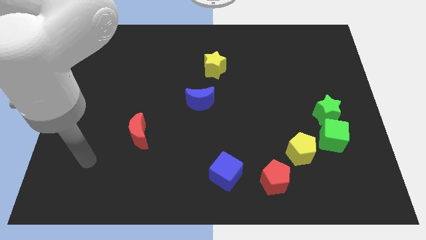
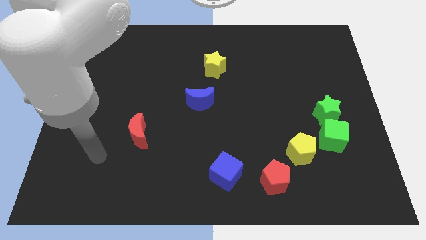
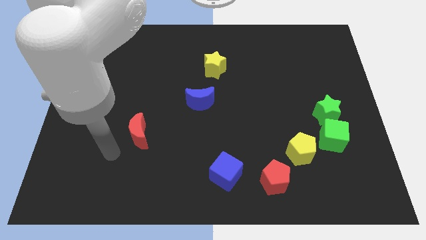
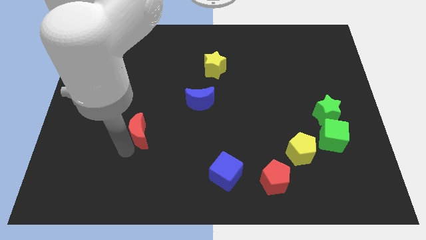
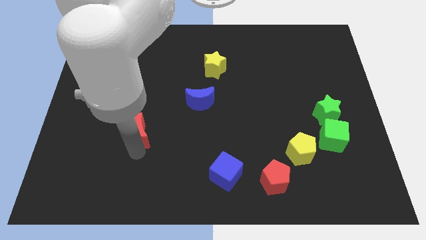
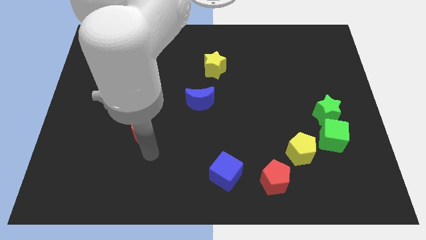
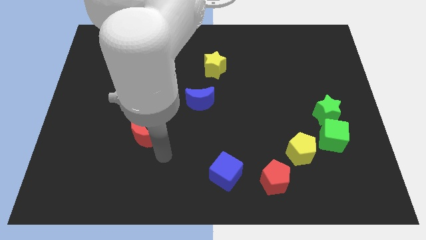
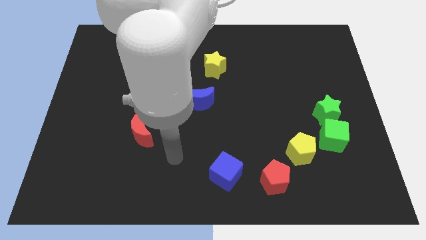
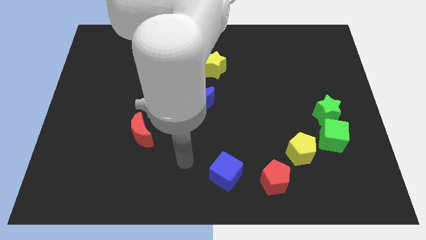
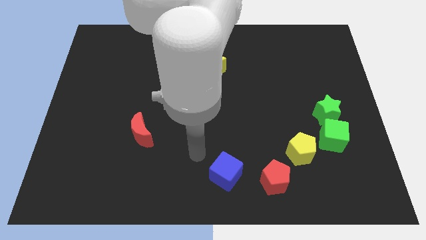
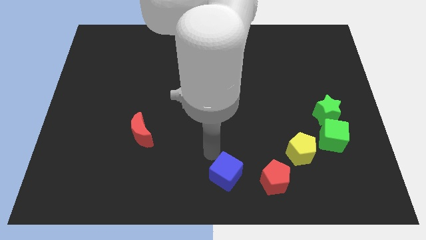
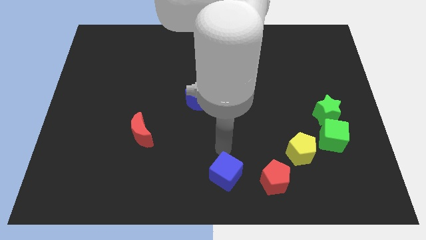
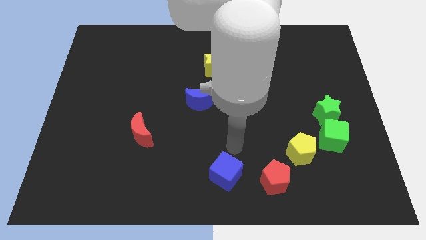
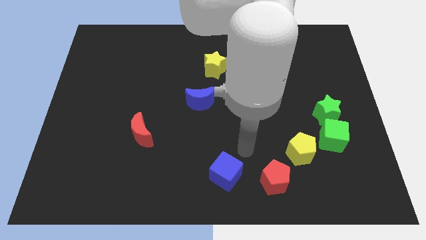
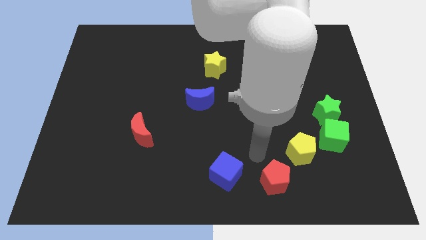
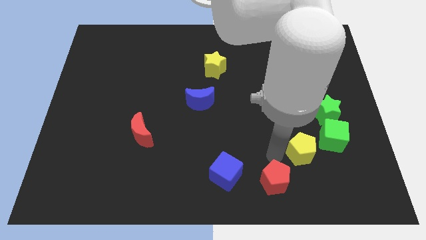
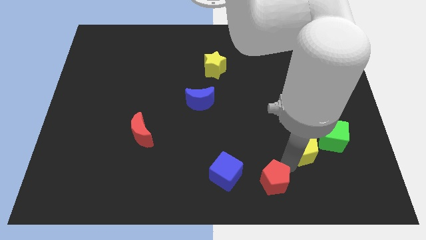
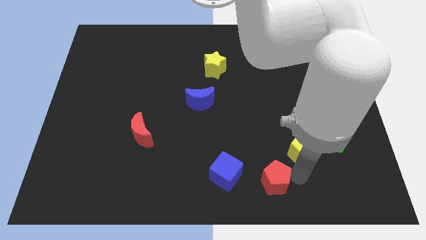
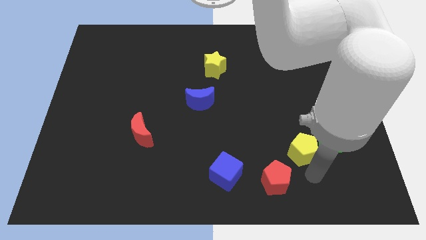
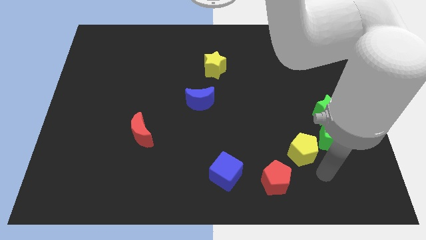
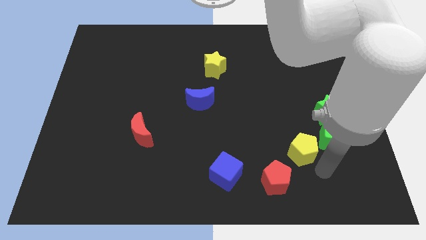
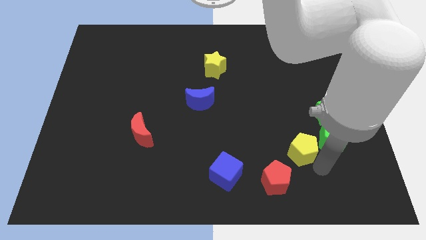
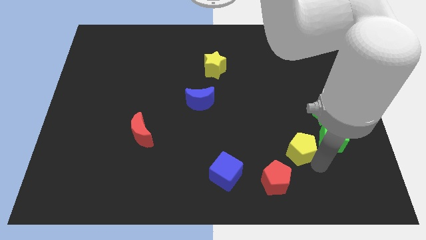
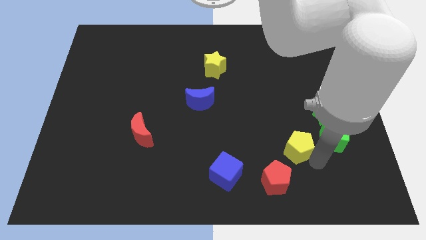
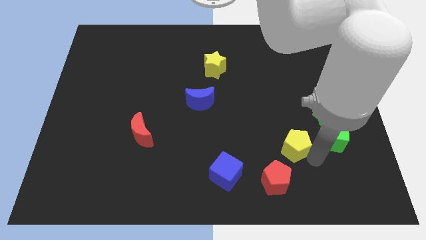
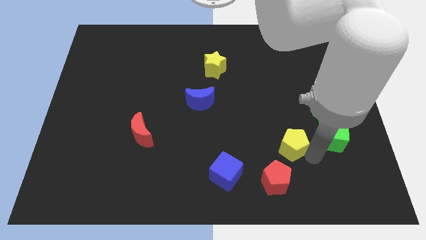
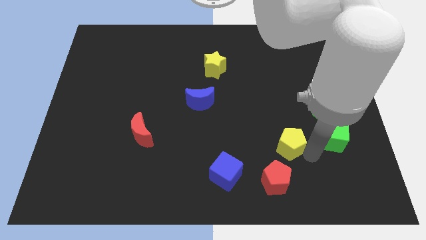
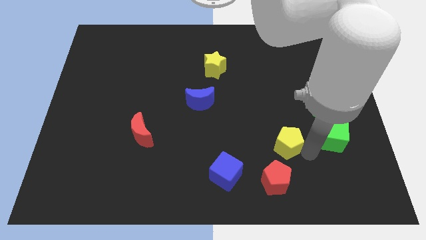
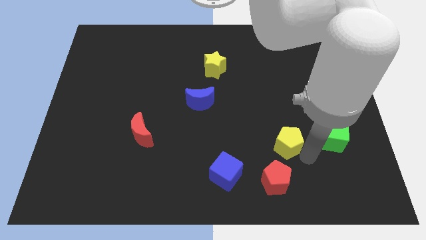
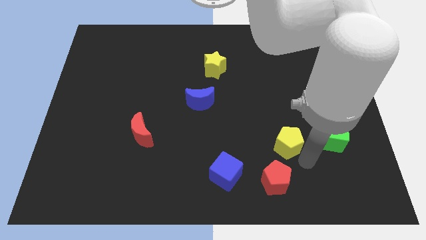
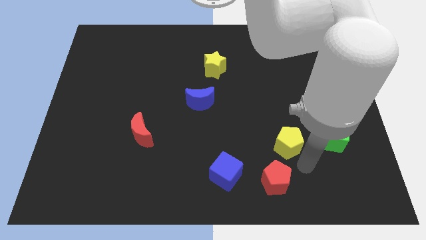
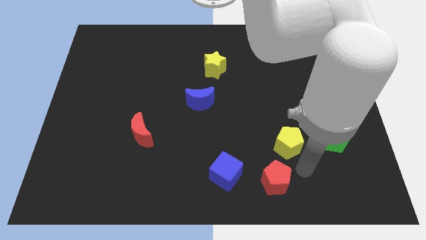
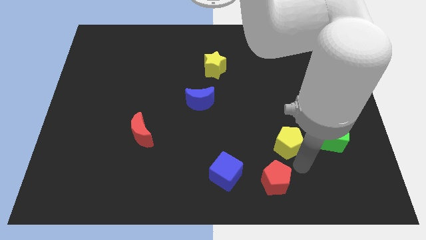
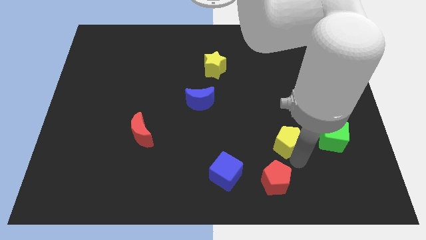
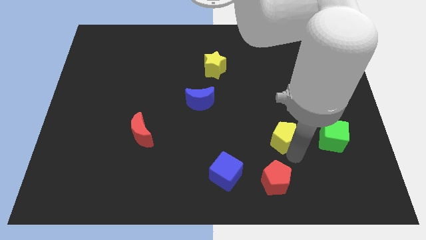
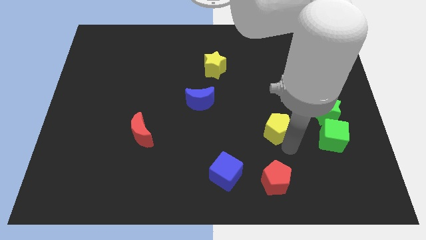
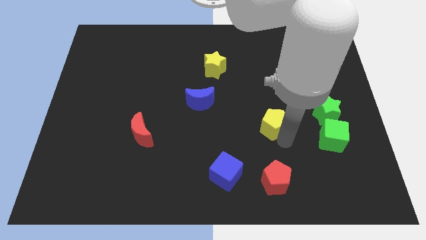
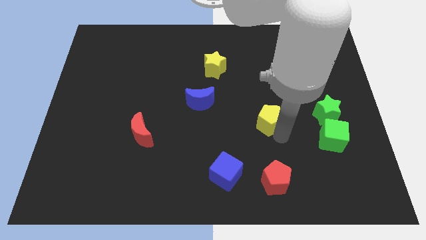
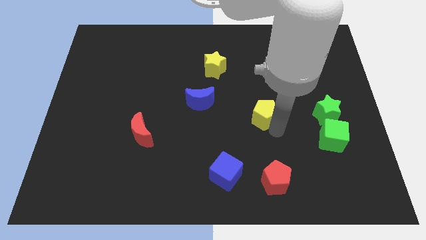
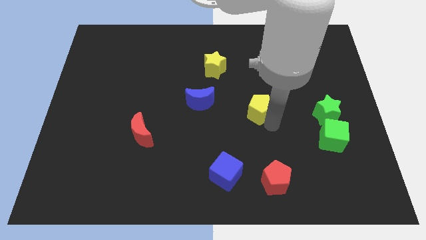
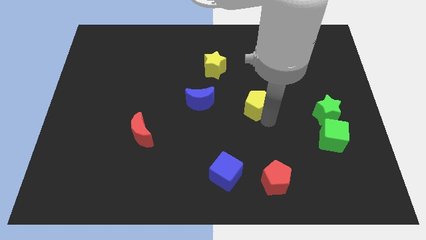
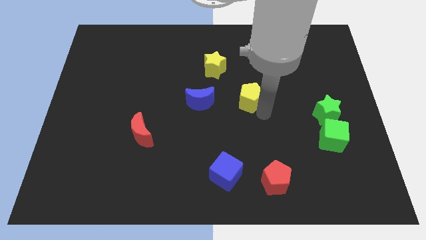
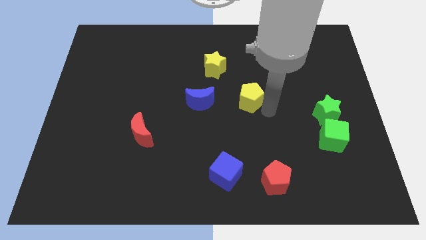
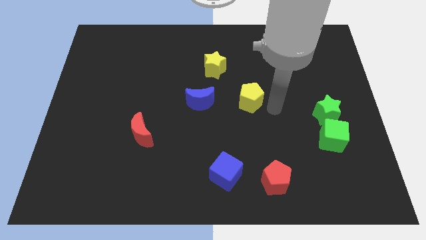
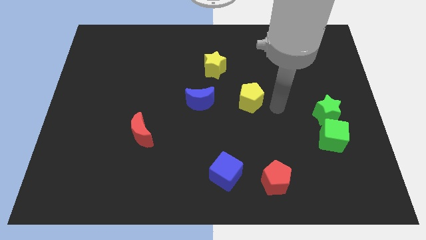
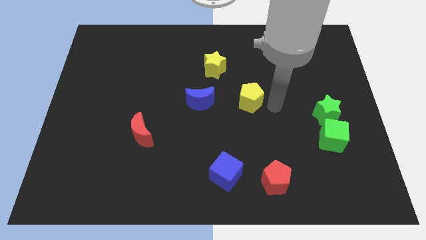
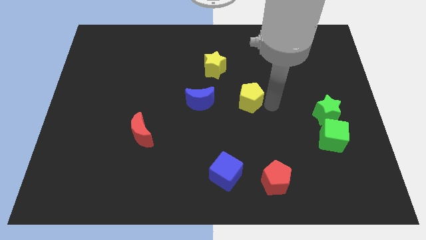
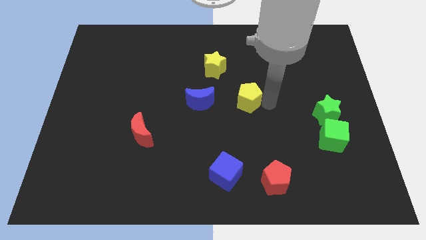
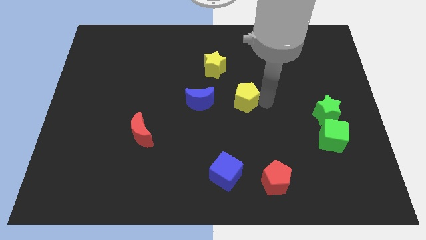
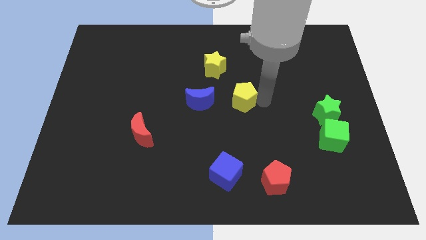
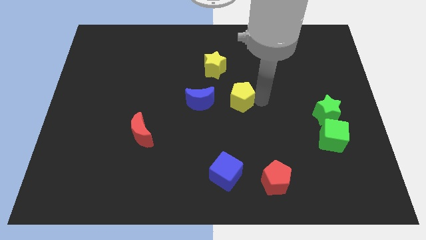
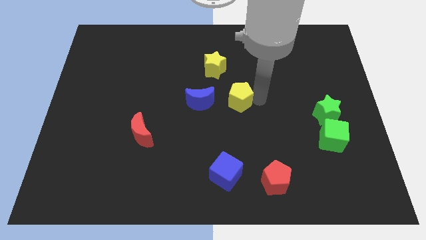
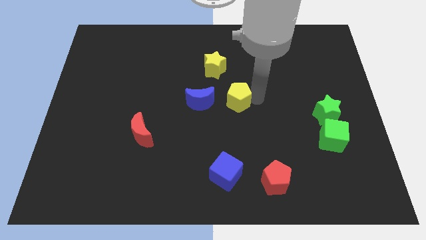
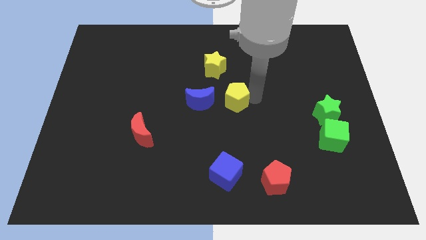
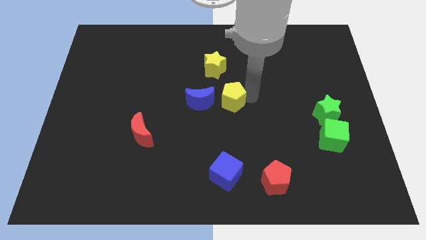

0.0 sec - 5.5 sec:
slide the yellow pentagon up and left diagonally

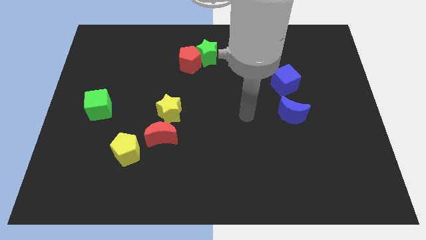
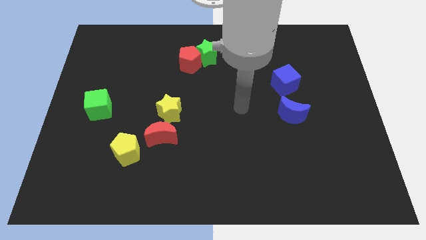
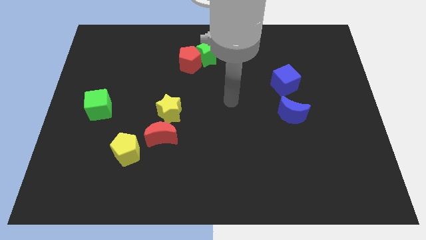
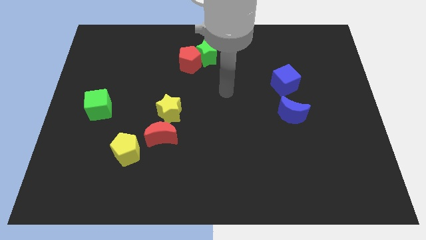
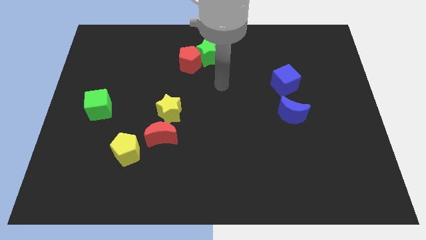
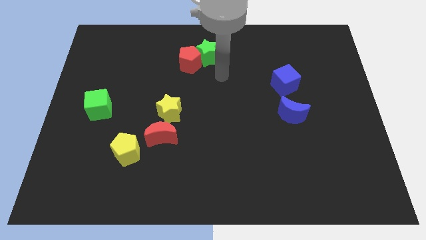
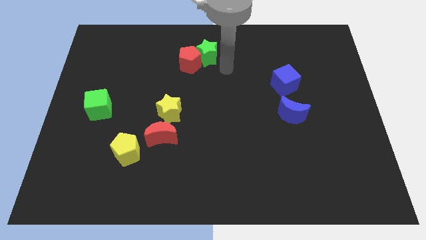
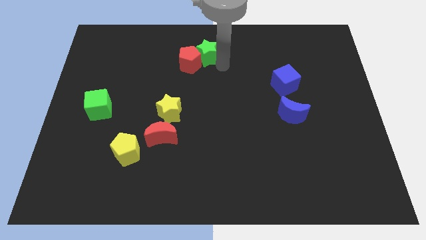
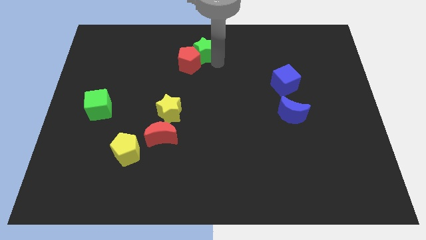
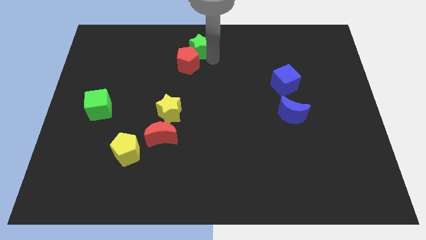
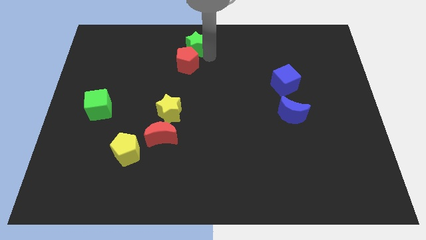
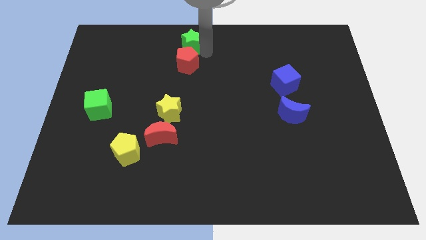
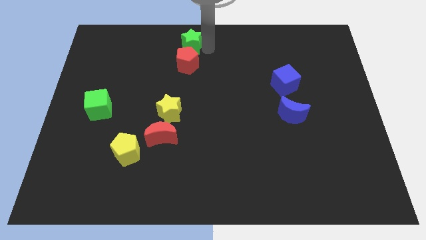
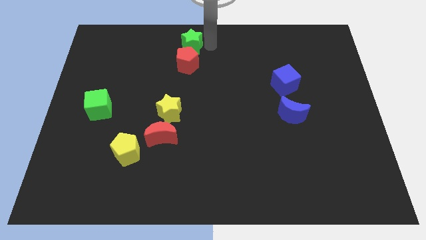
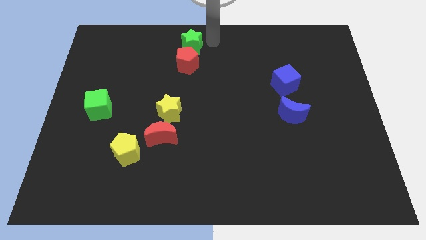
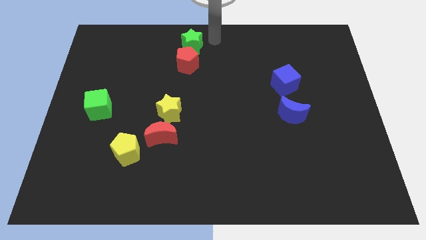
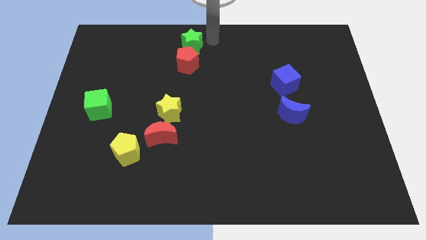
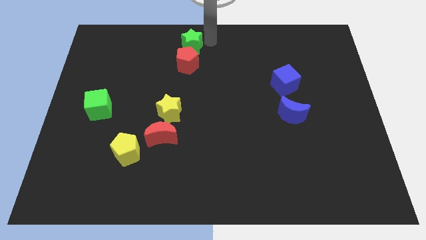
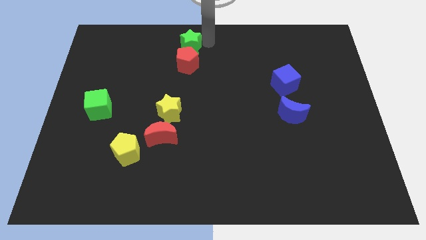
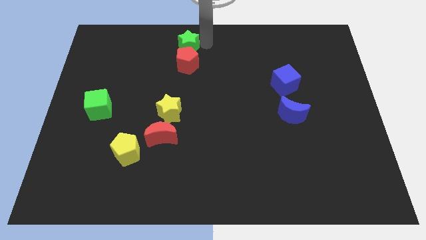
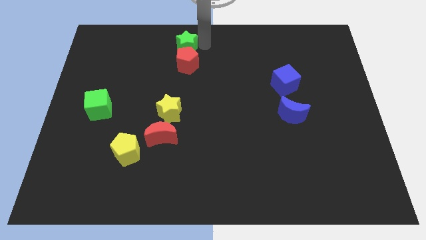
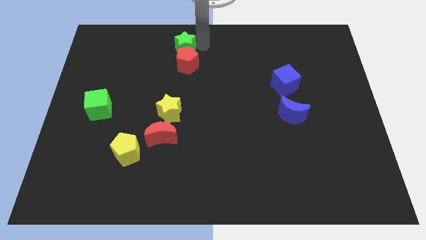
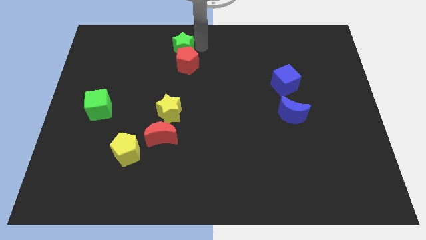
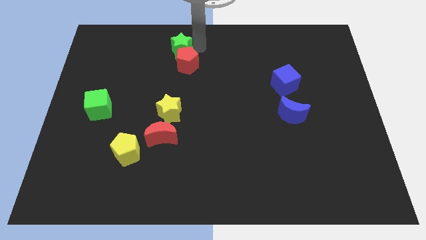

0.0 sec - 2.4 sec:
move the green star slightly left

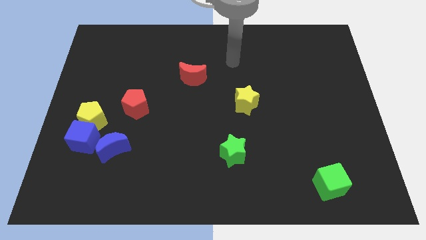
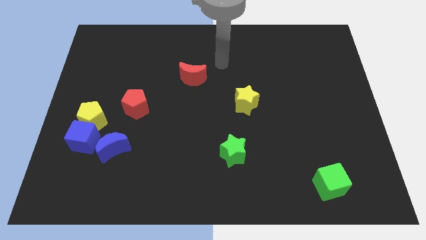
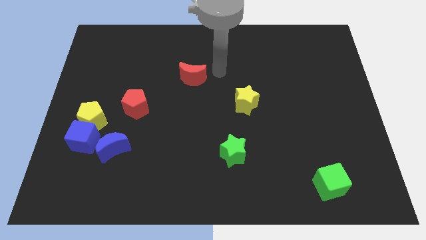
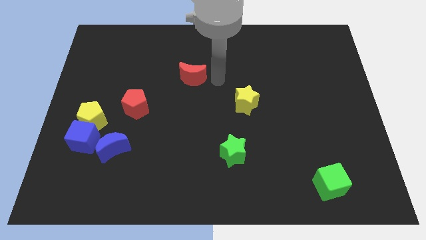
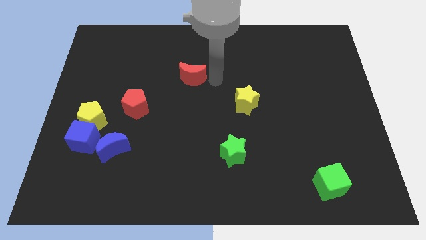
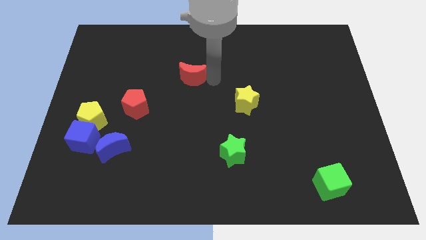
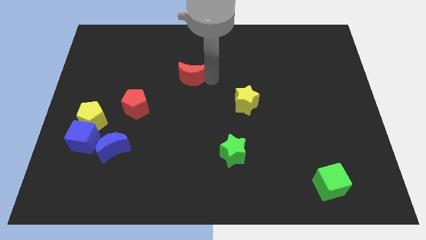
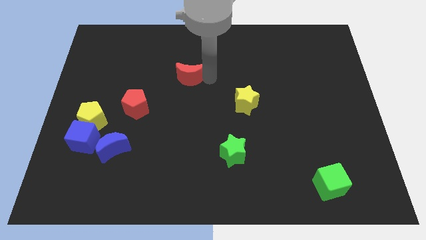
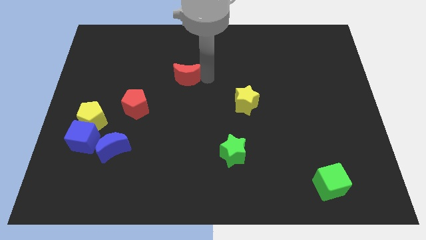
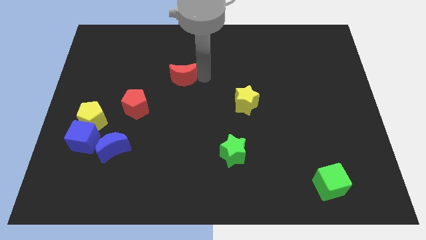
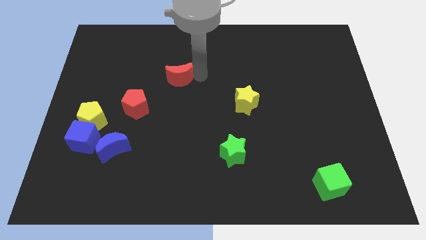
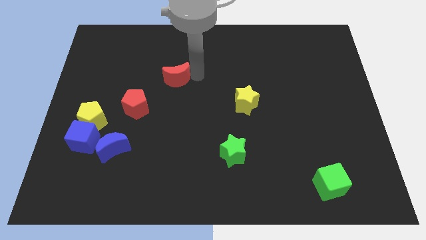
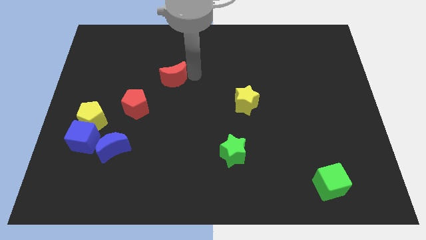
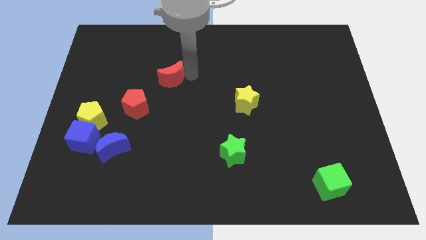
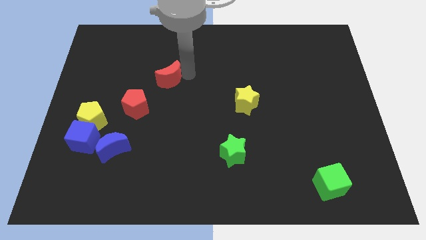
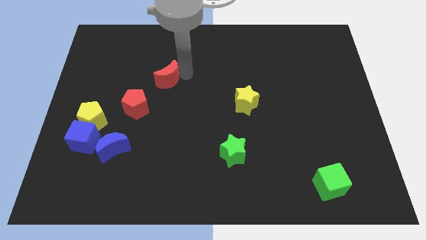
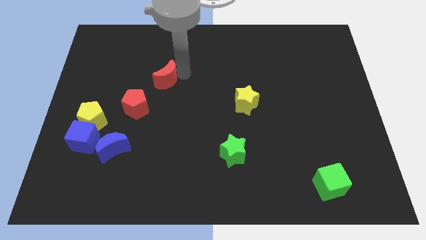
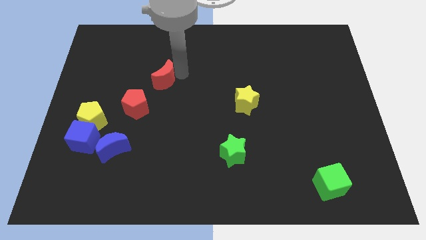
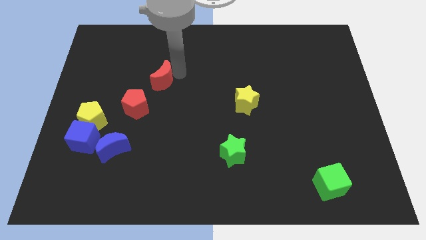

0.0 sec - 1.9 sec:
push the red moon left a bit
